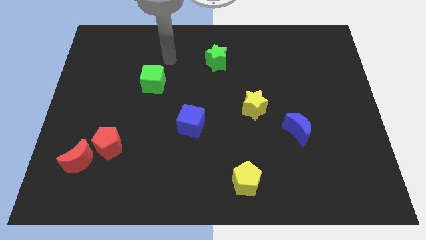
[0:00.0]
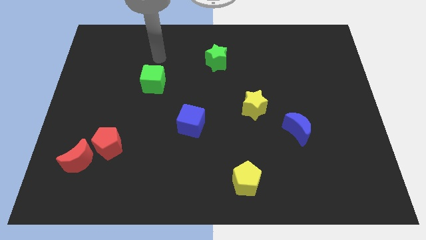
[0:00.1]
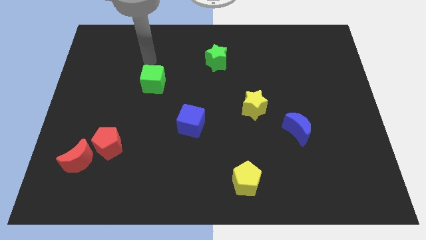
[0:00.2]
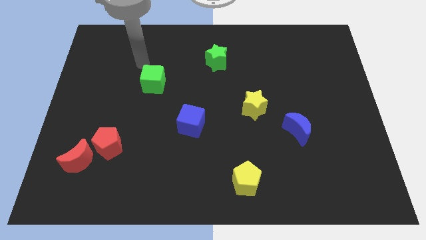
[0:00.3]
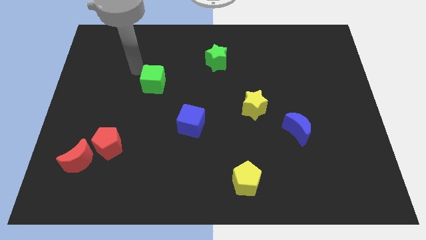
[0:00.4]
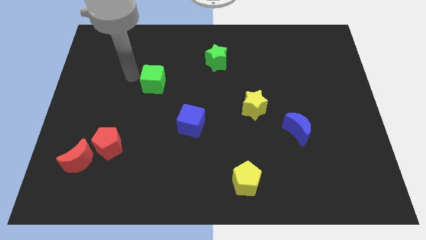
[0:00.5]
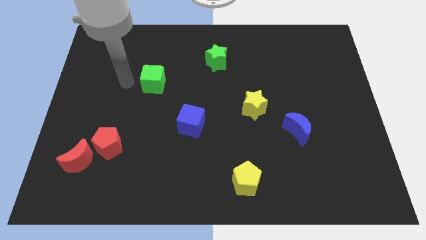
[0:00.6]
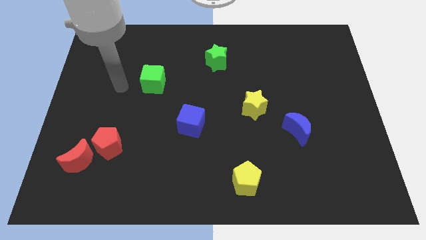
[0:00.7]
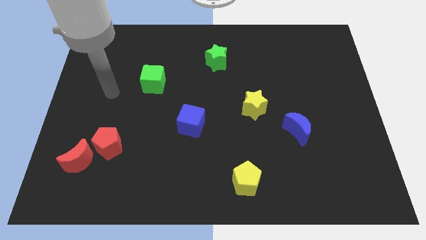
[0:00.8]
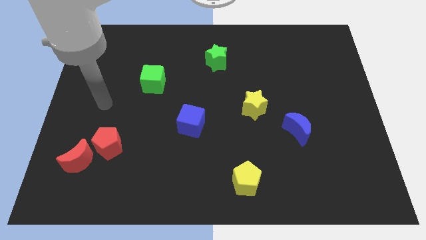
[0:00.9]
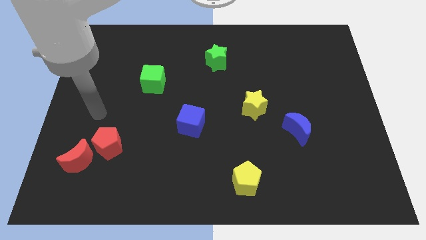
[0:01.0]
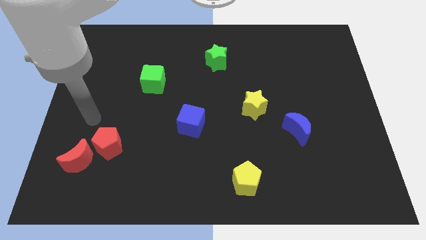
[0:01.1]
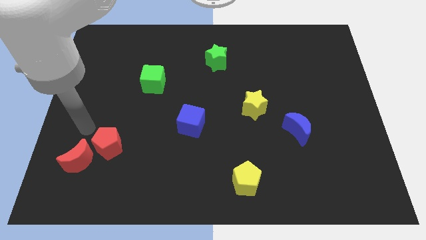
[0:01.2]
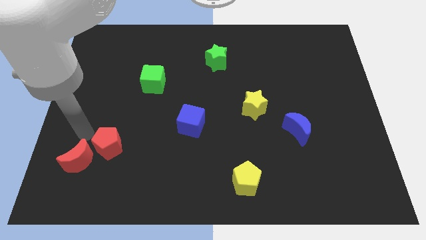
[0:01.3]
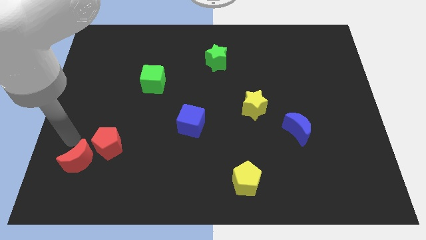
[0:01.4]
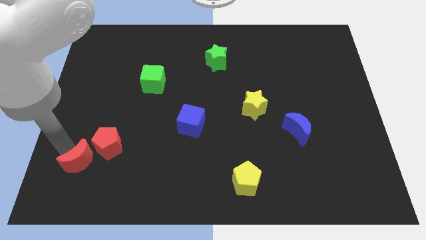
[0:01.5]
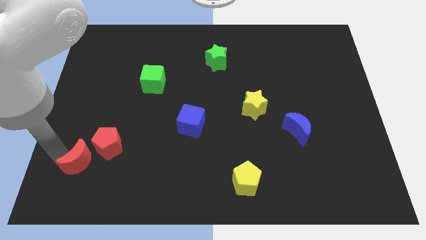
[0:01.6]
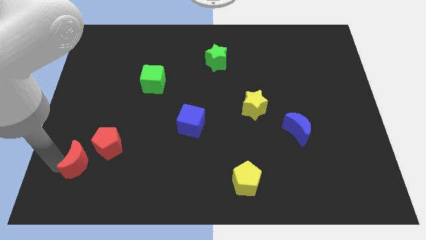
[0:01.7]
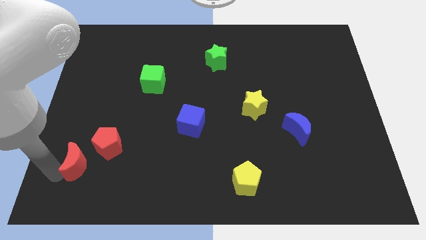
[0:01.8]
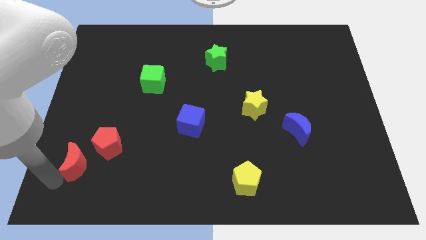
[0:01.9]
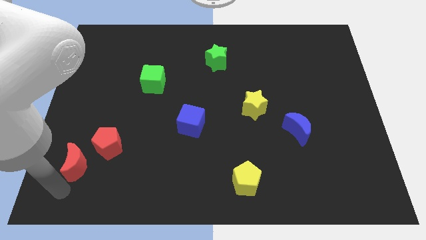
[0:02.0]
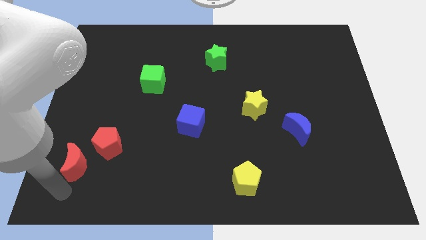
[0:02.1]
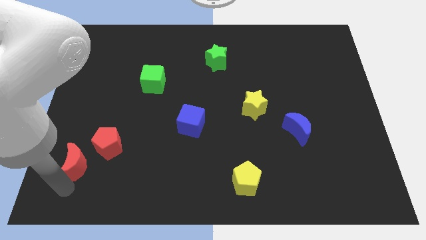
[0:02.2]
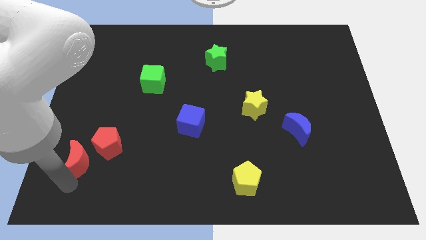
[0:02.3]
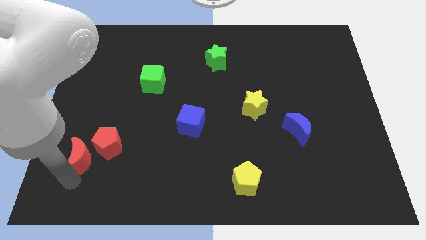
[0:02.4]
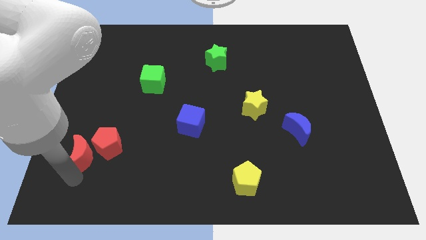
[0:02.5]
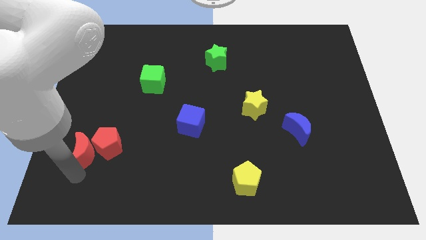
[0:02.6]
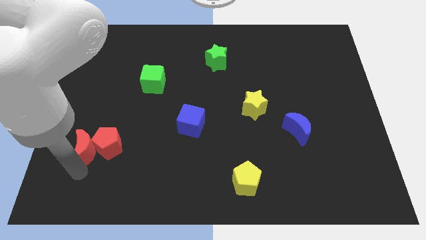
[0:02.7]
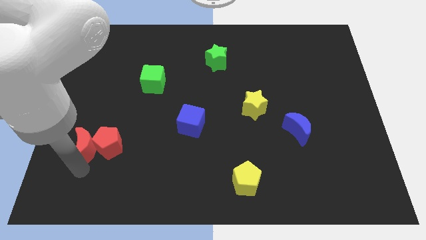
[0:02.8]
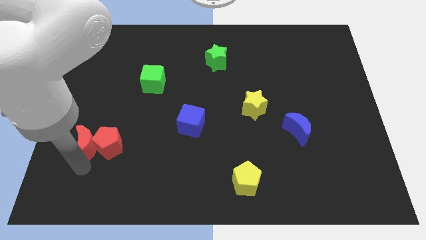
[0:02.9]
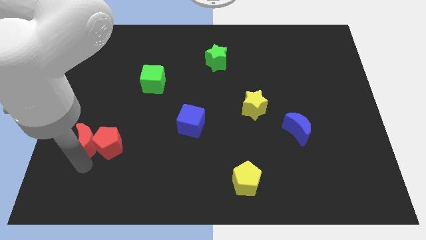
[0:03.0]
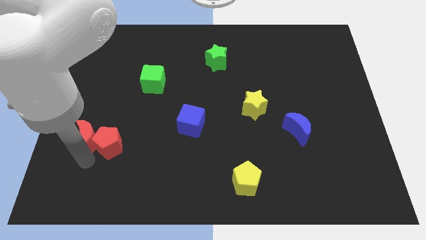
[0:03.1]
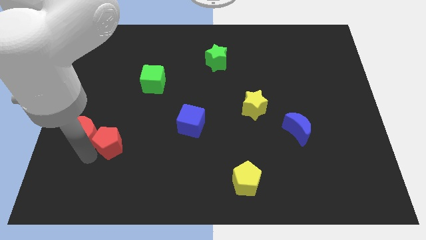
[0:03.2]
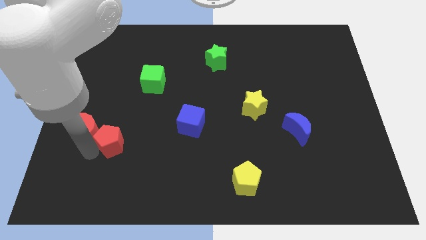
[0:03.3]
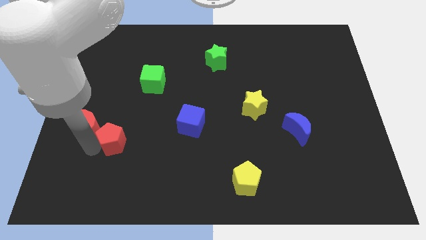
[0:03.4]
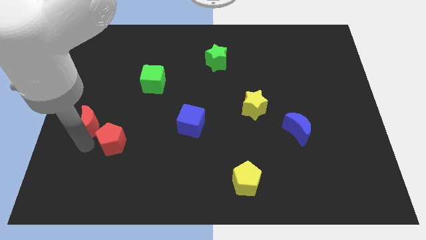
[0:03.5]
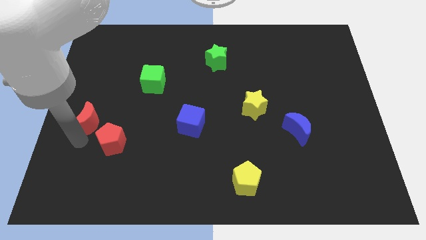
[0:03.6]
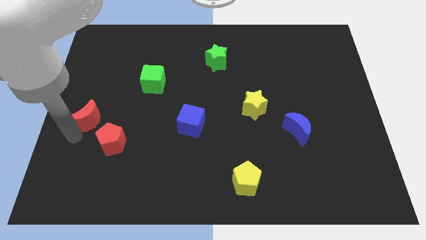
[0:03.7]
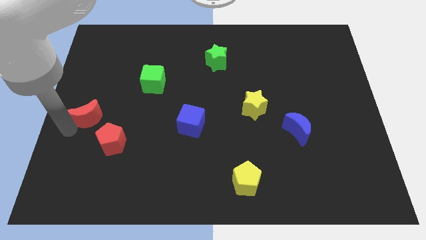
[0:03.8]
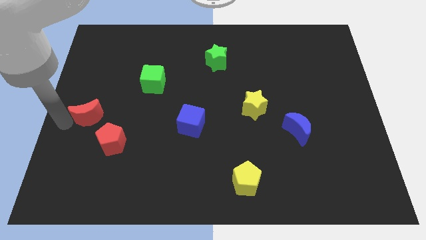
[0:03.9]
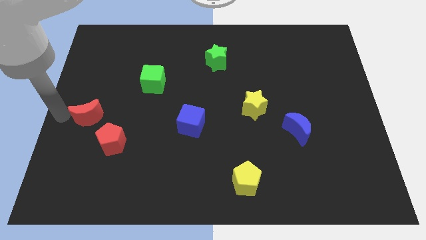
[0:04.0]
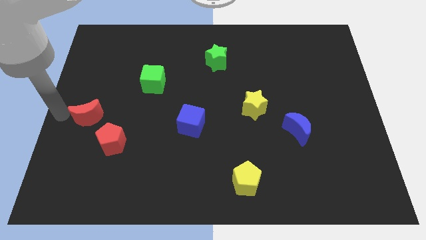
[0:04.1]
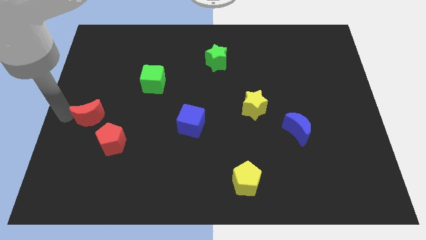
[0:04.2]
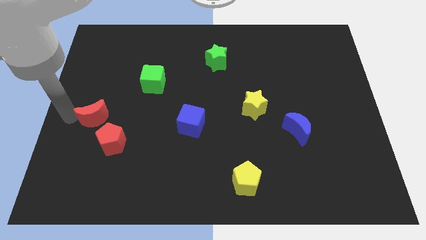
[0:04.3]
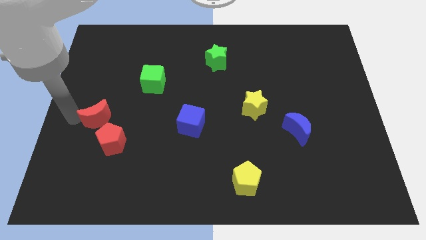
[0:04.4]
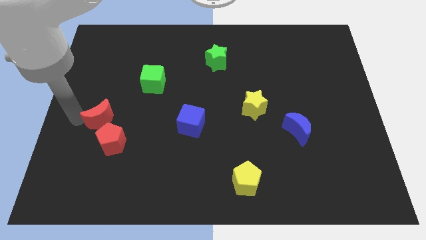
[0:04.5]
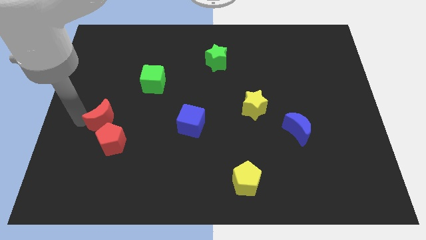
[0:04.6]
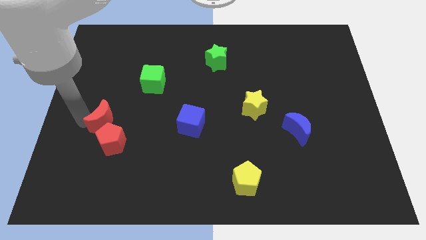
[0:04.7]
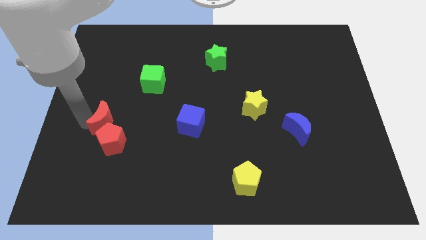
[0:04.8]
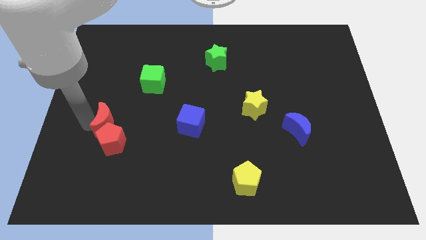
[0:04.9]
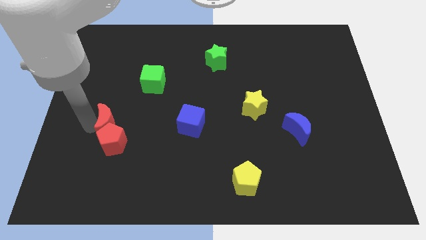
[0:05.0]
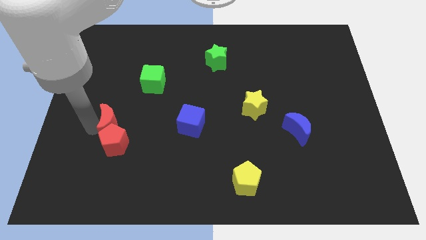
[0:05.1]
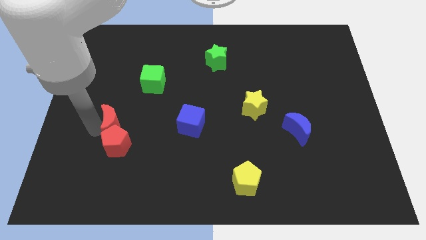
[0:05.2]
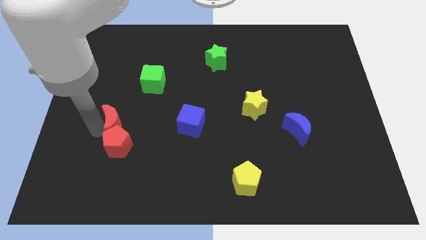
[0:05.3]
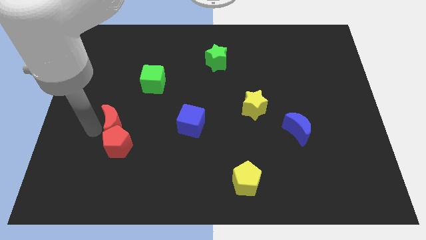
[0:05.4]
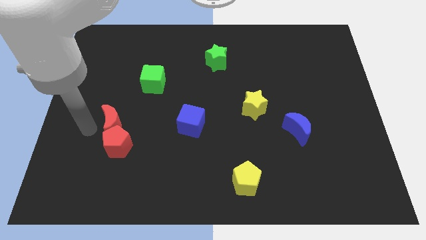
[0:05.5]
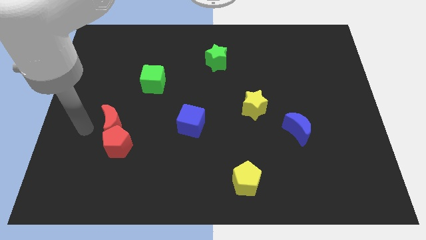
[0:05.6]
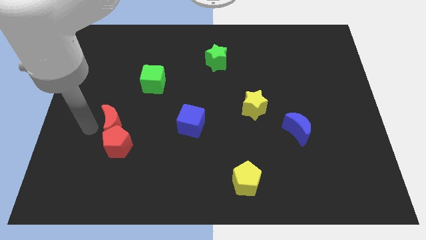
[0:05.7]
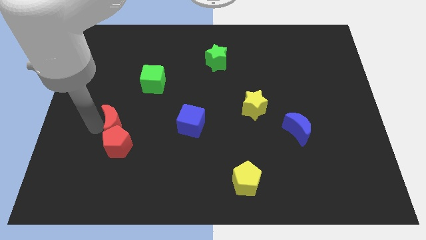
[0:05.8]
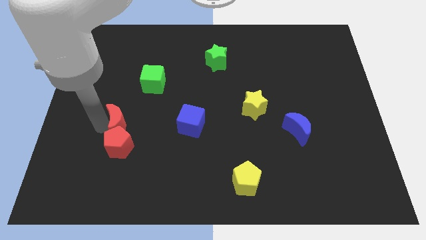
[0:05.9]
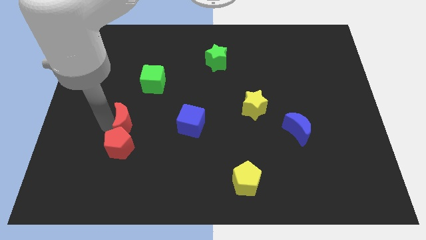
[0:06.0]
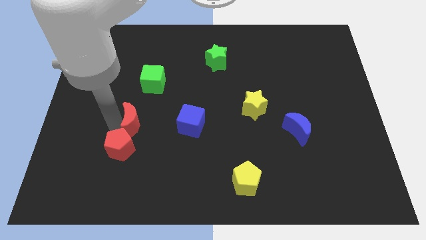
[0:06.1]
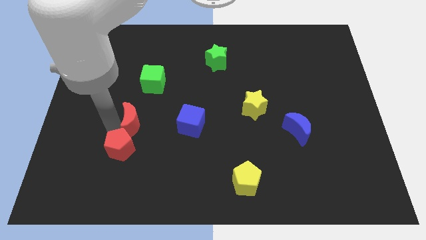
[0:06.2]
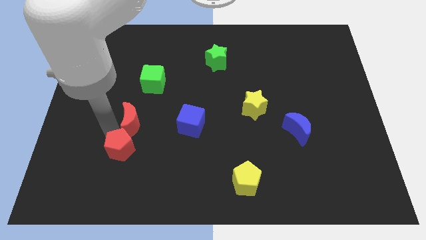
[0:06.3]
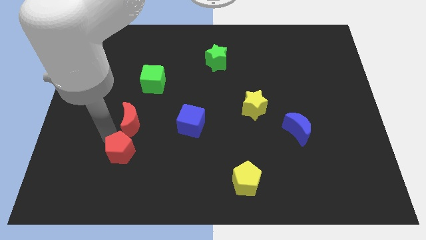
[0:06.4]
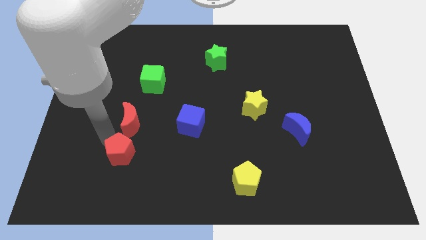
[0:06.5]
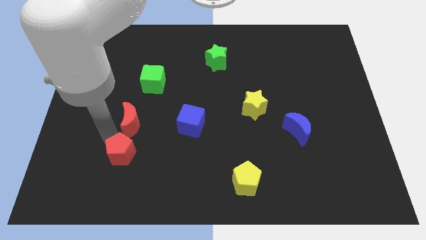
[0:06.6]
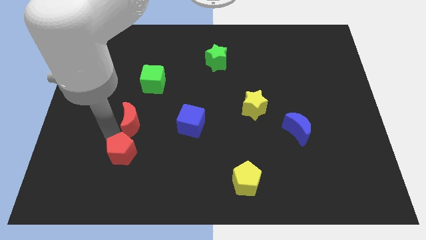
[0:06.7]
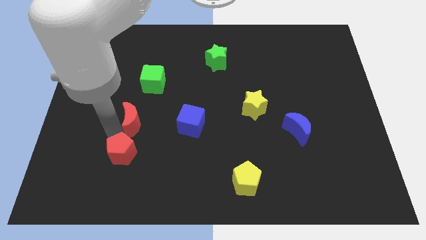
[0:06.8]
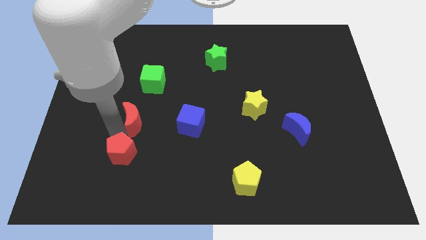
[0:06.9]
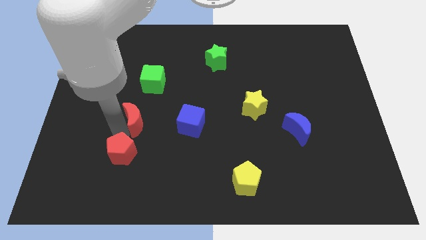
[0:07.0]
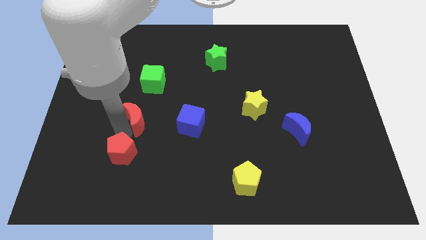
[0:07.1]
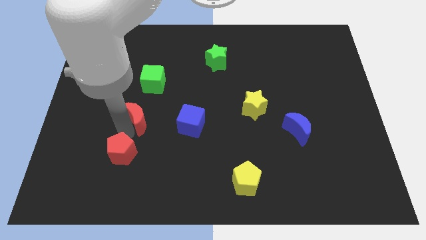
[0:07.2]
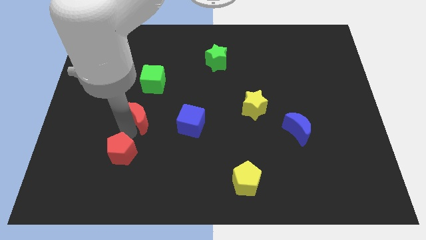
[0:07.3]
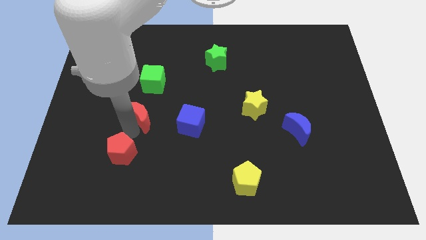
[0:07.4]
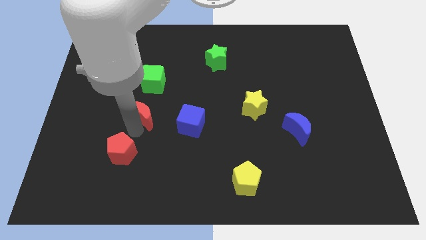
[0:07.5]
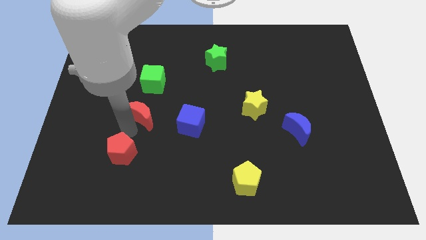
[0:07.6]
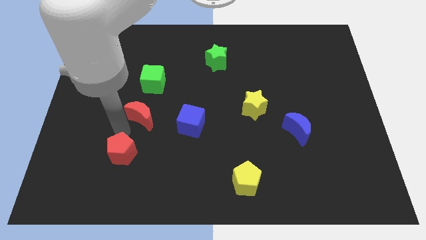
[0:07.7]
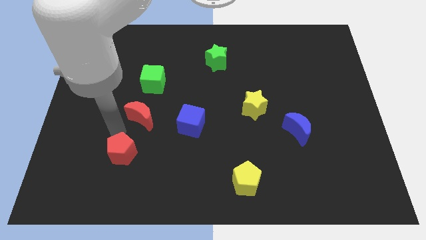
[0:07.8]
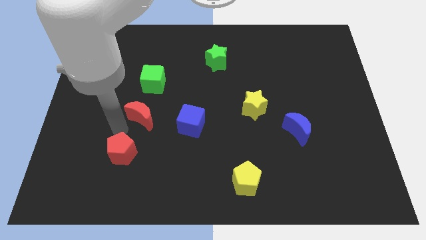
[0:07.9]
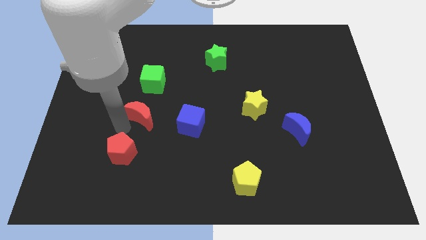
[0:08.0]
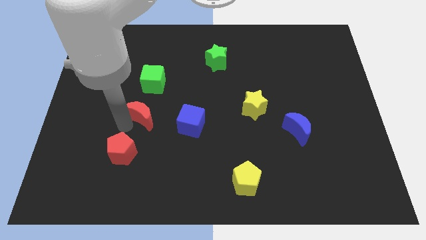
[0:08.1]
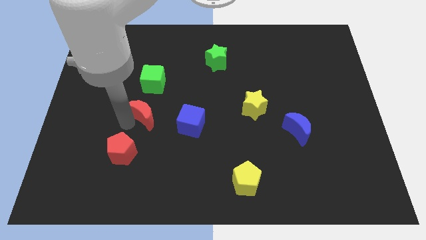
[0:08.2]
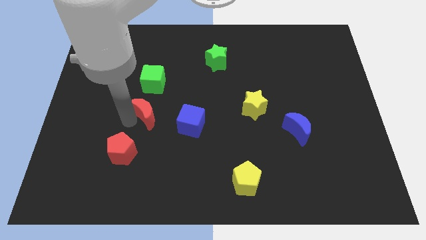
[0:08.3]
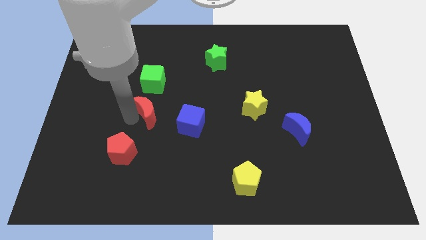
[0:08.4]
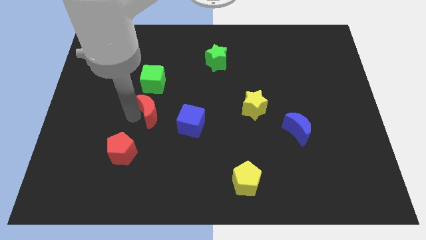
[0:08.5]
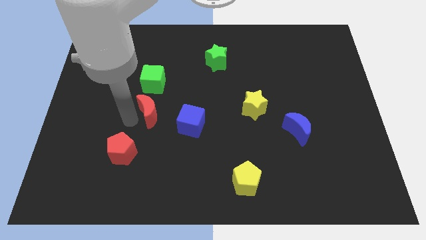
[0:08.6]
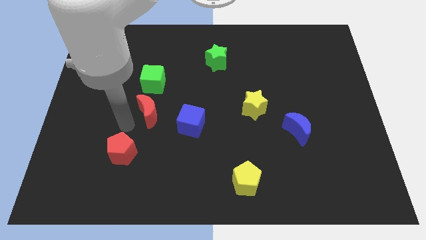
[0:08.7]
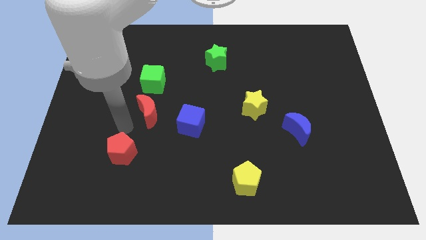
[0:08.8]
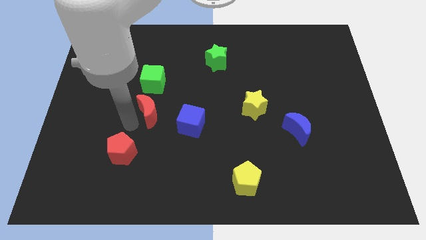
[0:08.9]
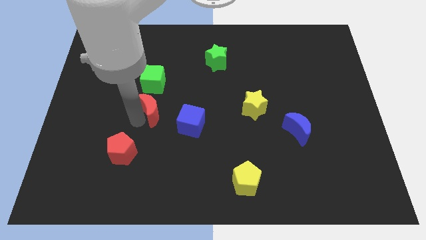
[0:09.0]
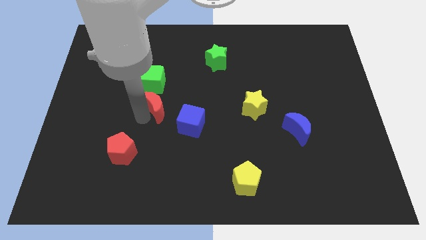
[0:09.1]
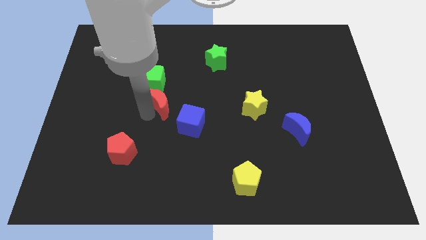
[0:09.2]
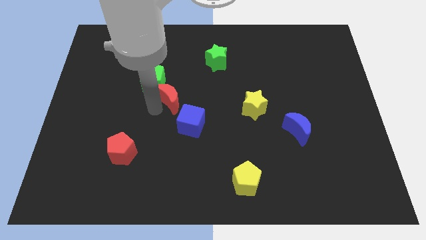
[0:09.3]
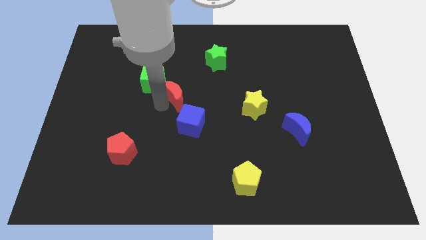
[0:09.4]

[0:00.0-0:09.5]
slide the red moon above the blue cube
